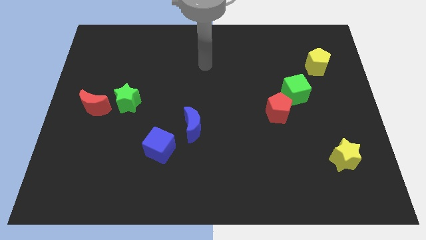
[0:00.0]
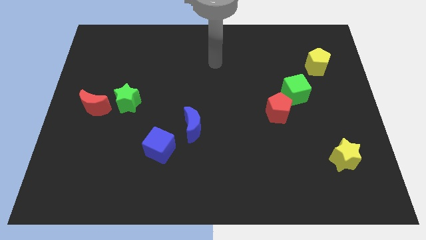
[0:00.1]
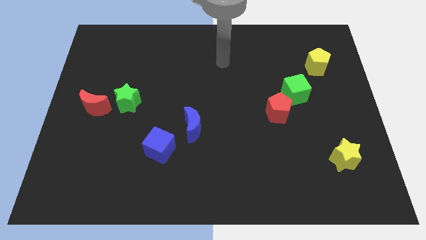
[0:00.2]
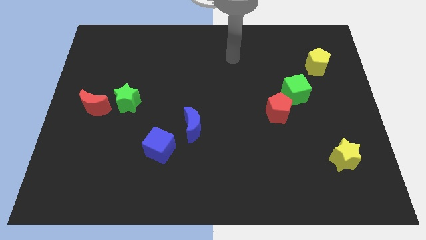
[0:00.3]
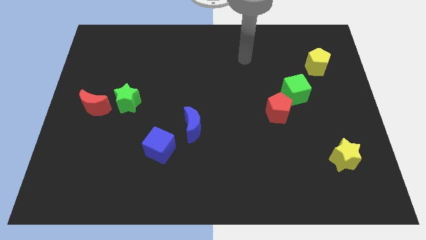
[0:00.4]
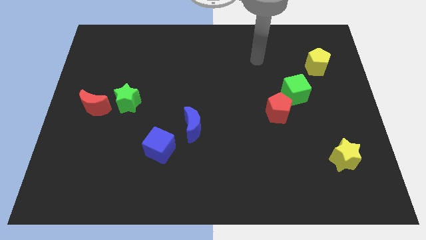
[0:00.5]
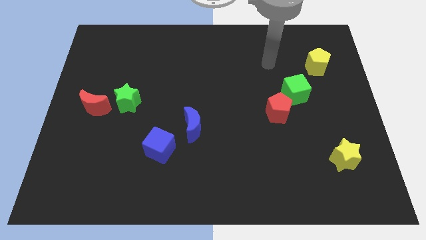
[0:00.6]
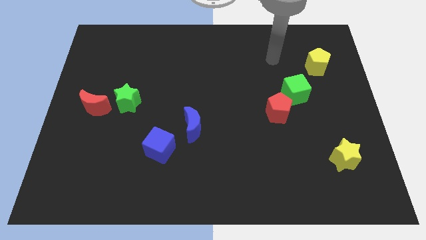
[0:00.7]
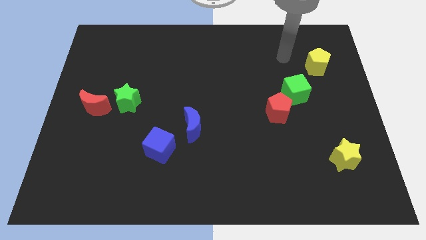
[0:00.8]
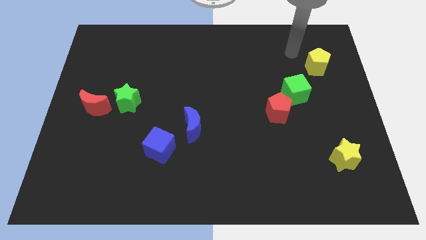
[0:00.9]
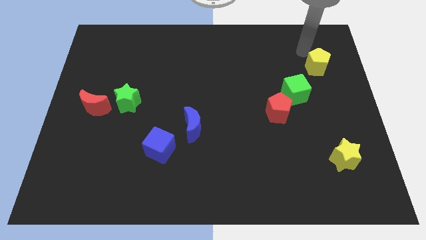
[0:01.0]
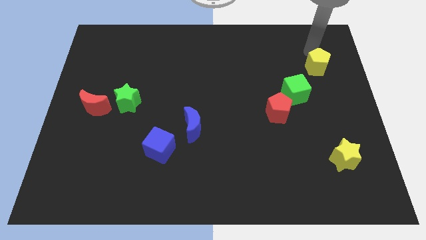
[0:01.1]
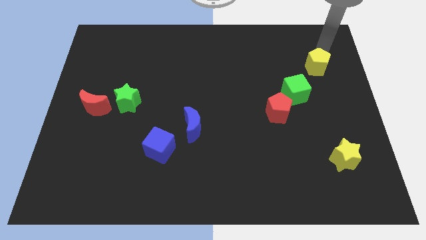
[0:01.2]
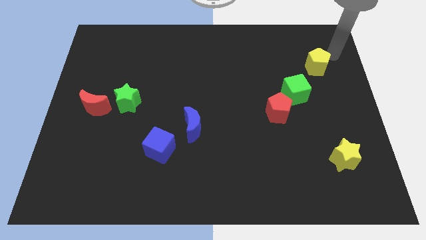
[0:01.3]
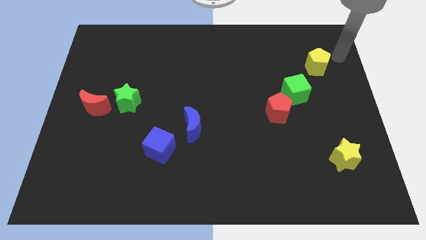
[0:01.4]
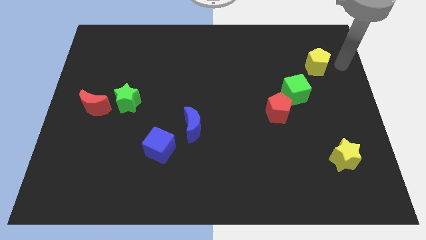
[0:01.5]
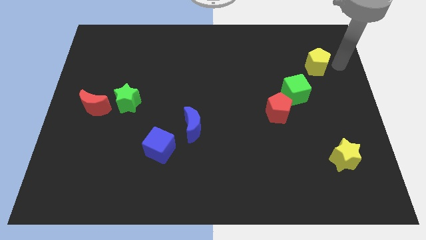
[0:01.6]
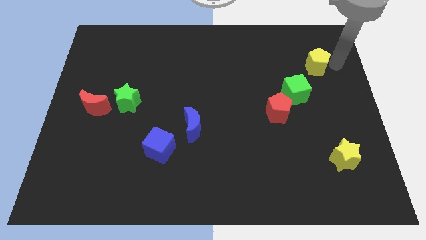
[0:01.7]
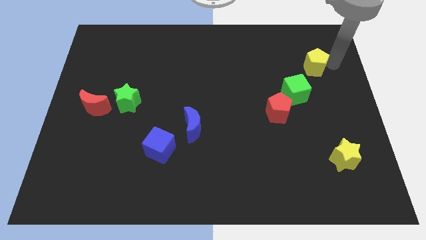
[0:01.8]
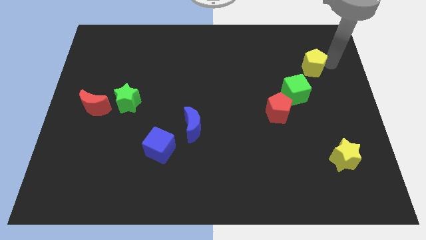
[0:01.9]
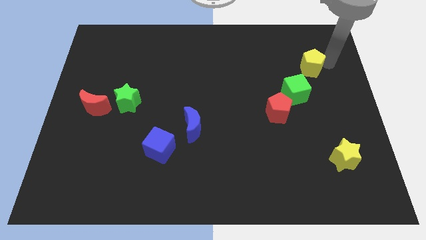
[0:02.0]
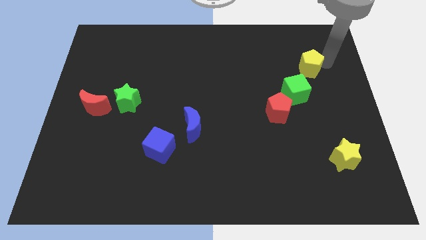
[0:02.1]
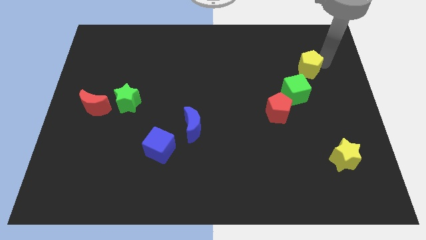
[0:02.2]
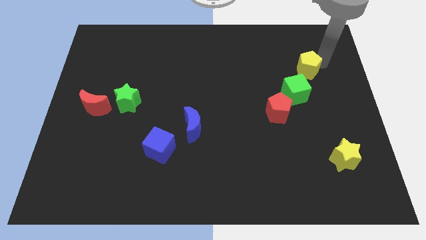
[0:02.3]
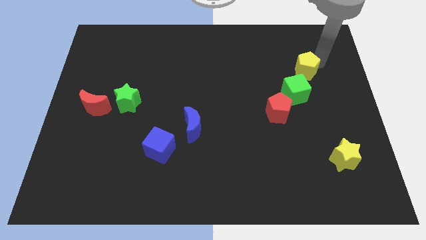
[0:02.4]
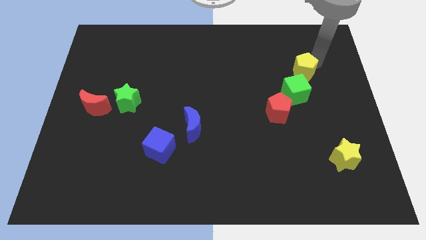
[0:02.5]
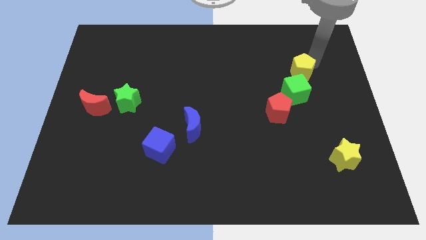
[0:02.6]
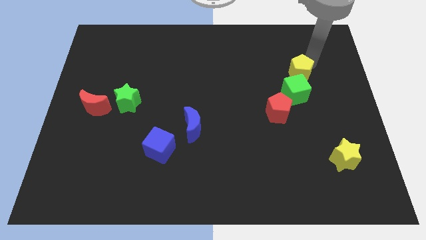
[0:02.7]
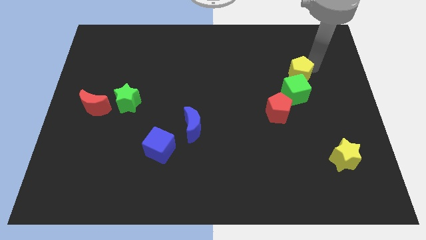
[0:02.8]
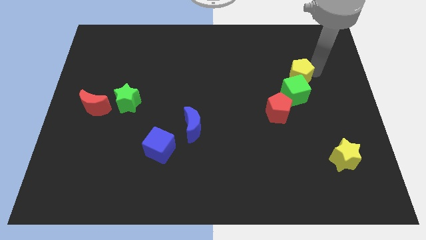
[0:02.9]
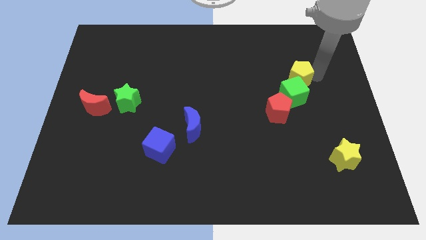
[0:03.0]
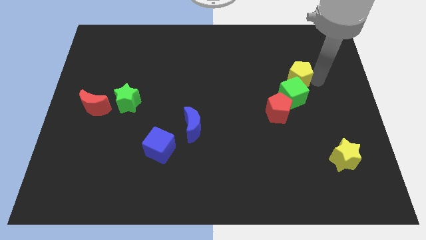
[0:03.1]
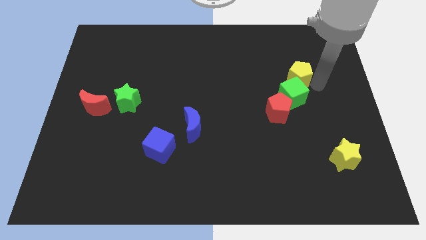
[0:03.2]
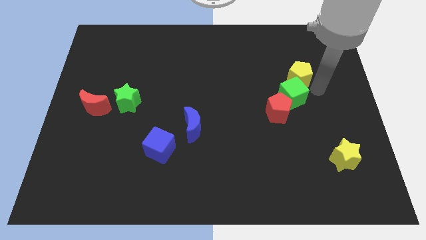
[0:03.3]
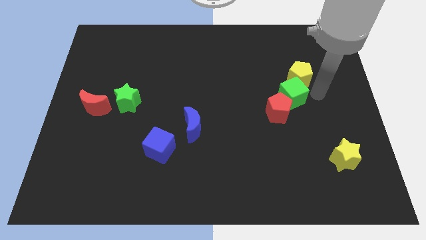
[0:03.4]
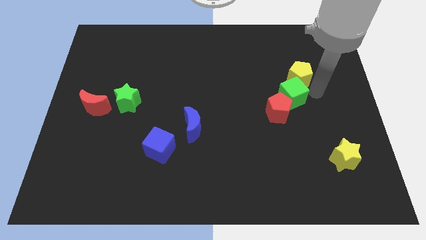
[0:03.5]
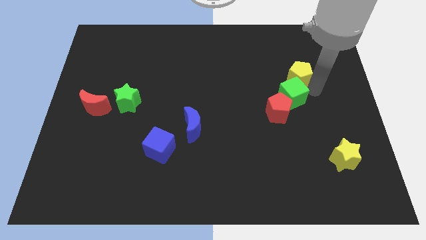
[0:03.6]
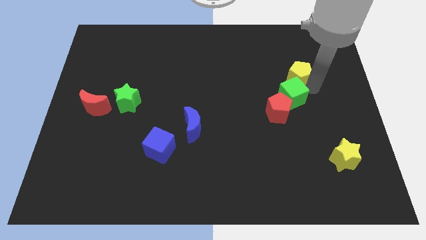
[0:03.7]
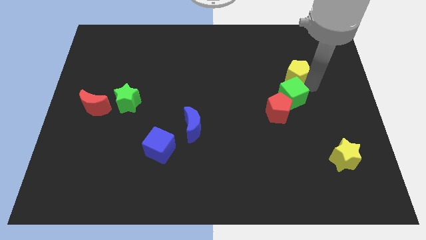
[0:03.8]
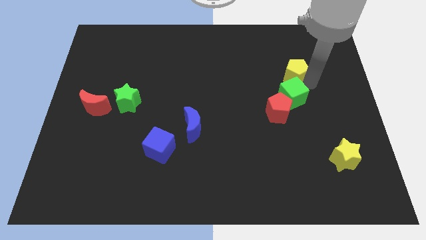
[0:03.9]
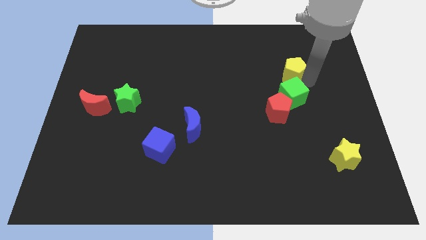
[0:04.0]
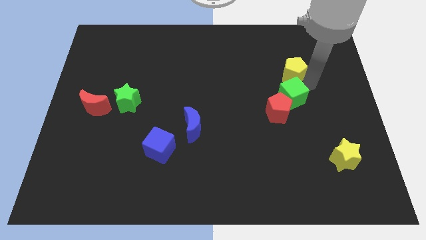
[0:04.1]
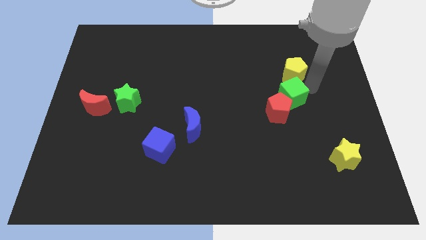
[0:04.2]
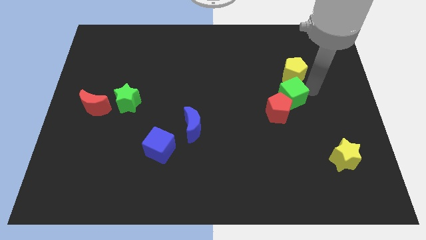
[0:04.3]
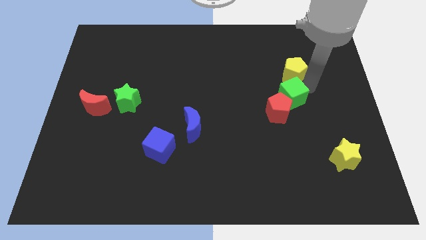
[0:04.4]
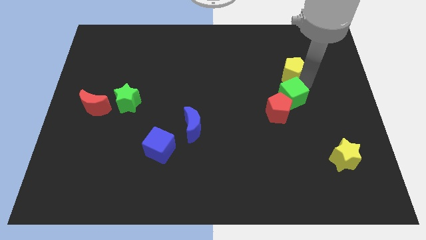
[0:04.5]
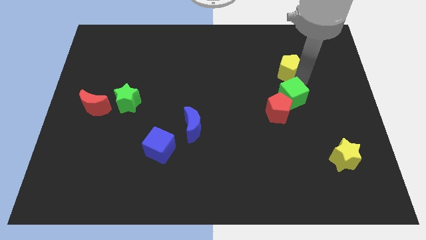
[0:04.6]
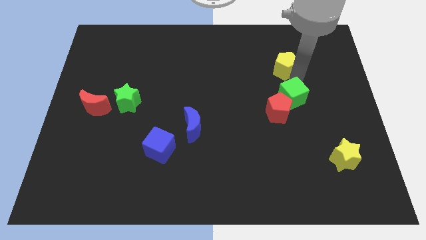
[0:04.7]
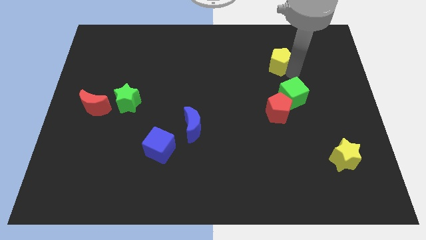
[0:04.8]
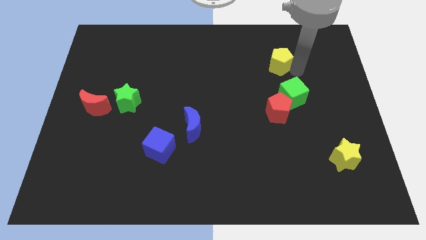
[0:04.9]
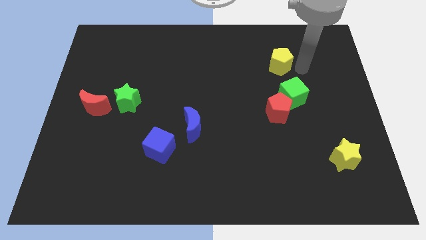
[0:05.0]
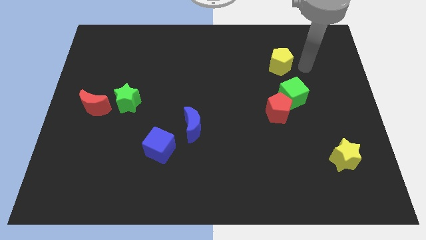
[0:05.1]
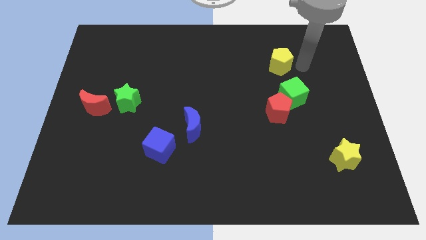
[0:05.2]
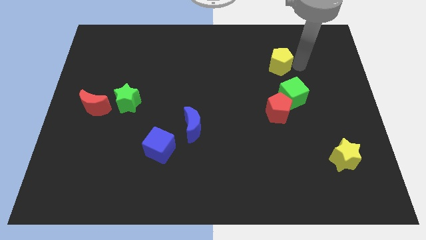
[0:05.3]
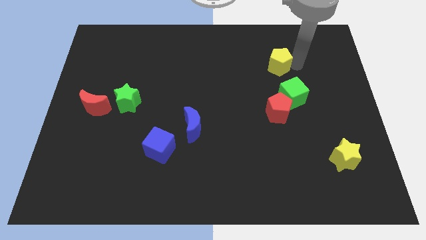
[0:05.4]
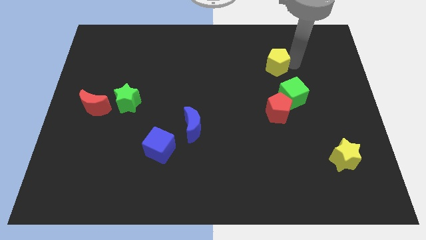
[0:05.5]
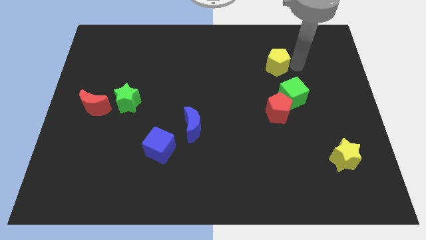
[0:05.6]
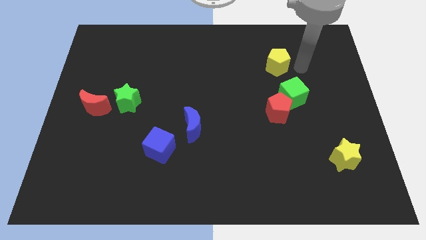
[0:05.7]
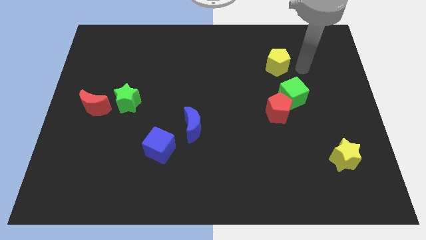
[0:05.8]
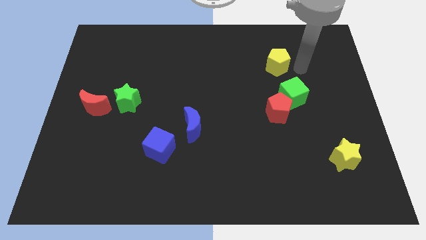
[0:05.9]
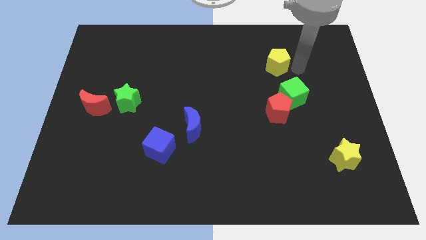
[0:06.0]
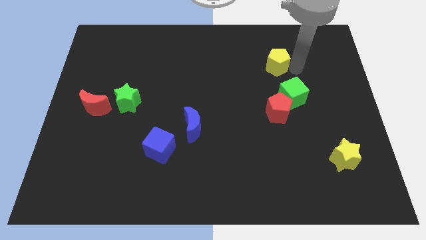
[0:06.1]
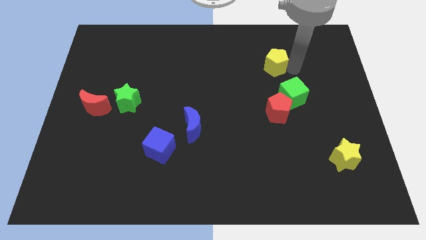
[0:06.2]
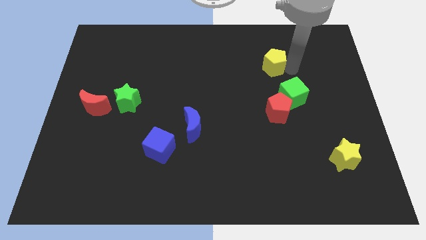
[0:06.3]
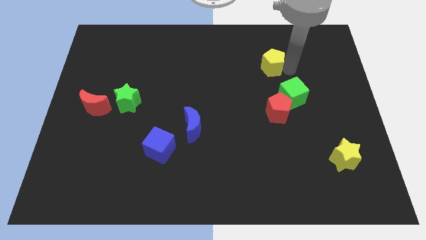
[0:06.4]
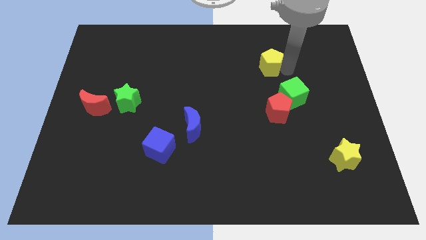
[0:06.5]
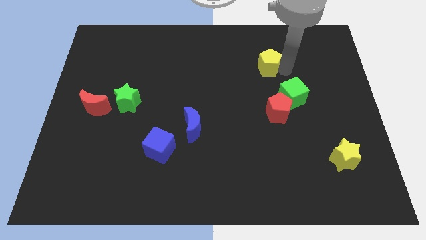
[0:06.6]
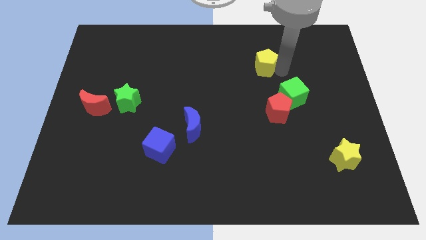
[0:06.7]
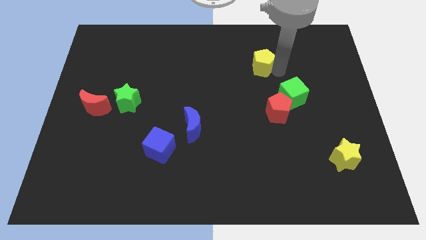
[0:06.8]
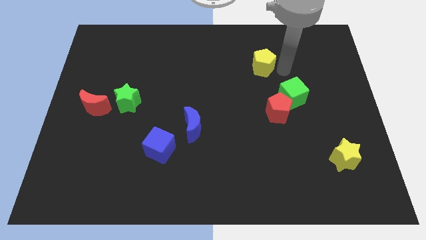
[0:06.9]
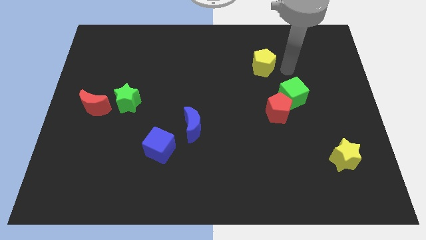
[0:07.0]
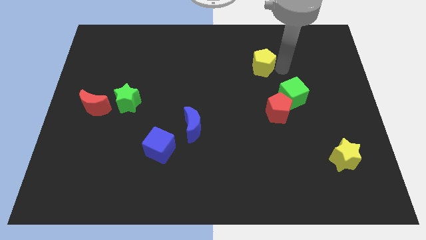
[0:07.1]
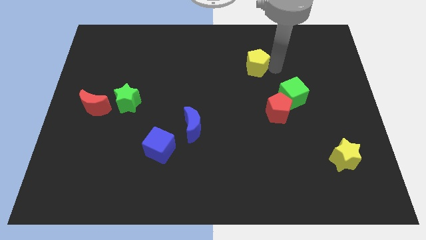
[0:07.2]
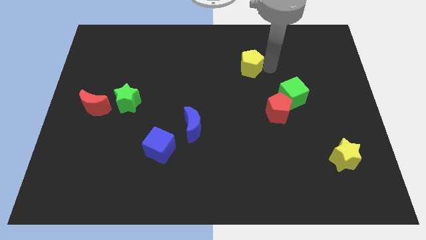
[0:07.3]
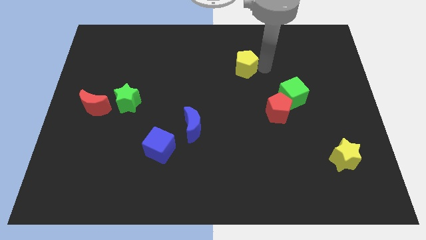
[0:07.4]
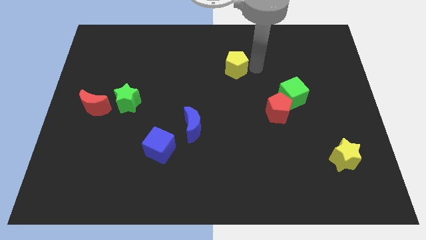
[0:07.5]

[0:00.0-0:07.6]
push the yellow pentagon left

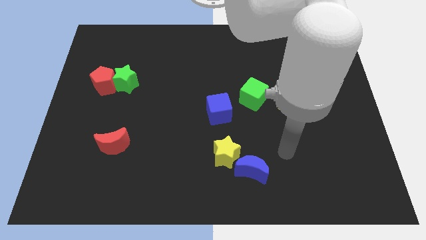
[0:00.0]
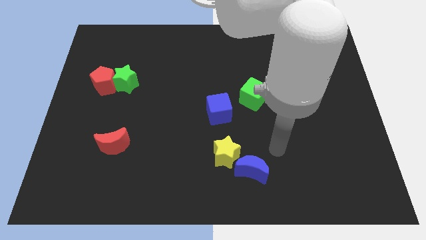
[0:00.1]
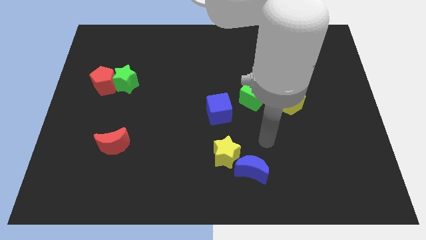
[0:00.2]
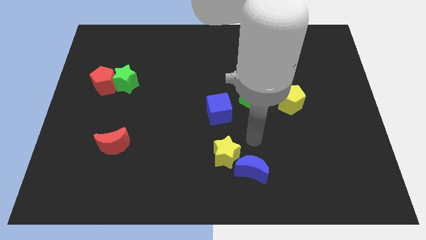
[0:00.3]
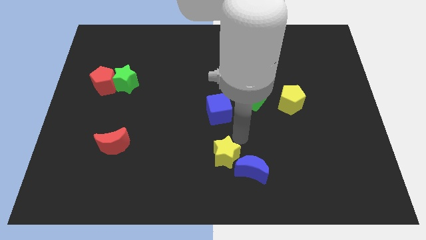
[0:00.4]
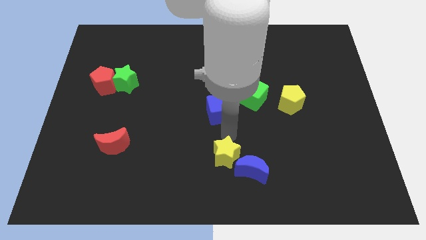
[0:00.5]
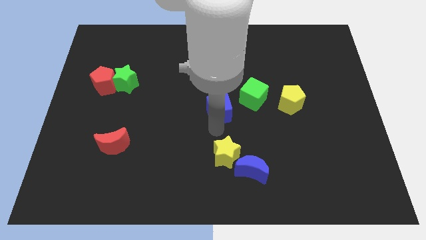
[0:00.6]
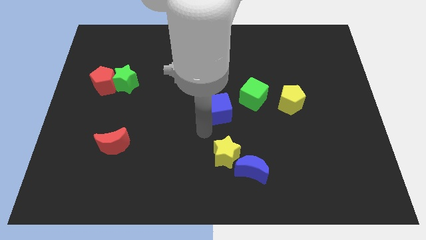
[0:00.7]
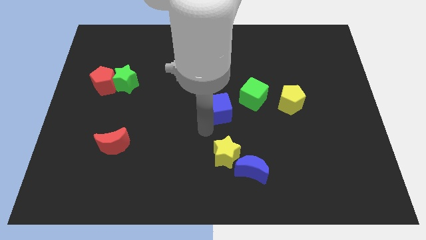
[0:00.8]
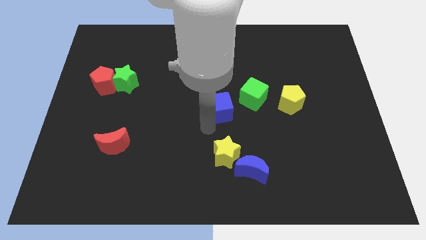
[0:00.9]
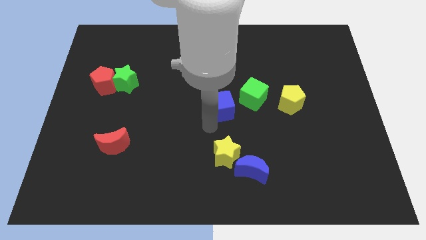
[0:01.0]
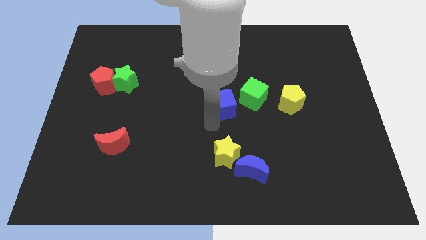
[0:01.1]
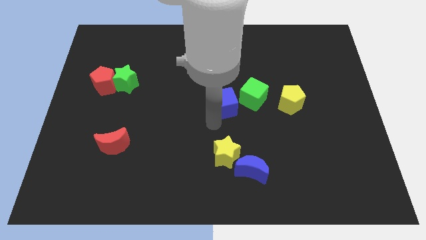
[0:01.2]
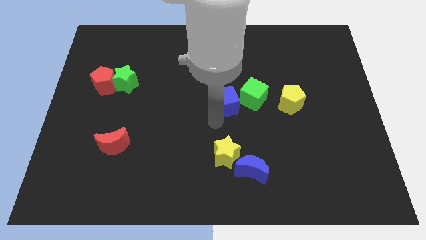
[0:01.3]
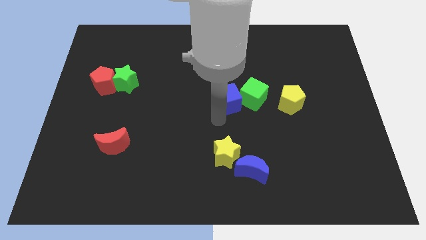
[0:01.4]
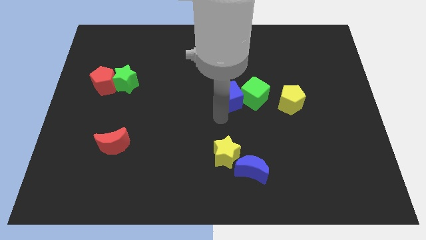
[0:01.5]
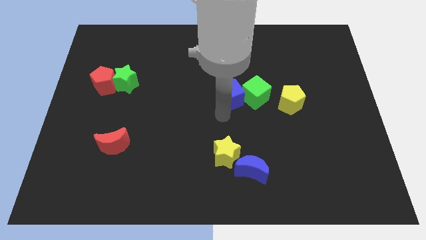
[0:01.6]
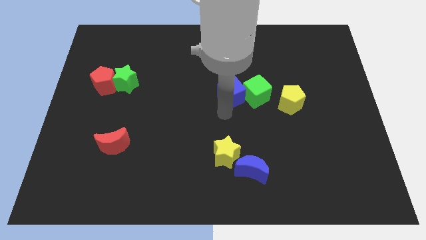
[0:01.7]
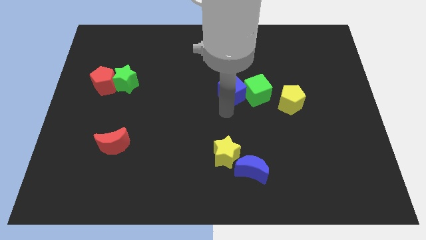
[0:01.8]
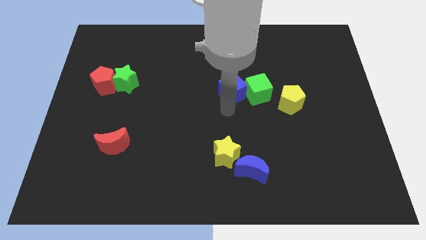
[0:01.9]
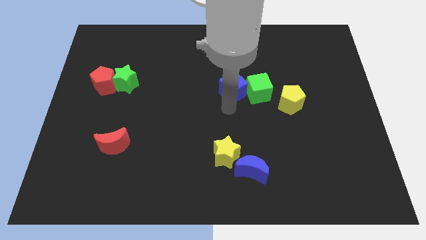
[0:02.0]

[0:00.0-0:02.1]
slide the blue cube upwards and then to the right a bit
